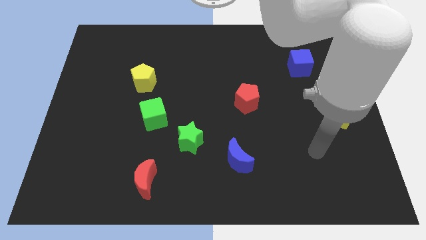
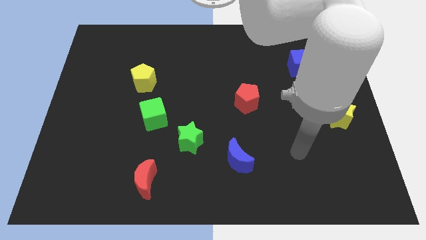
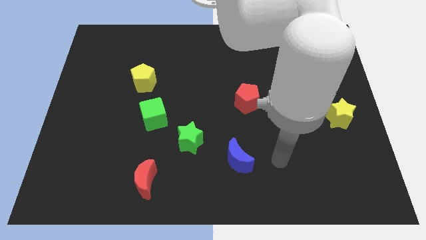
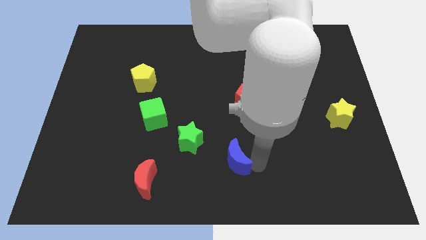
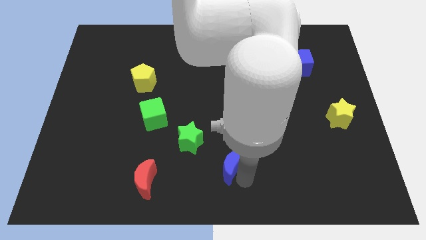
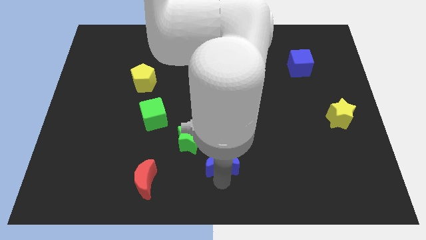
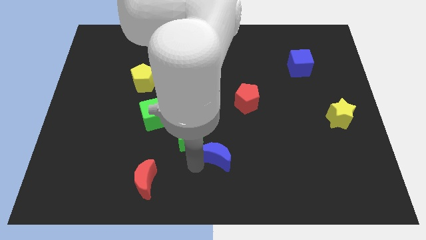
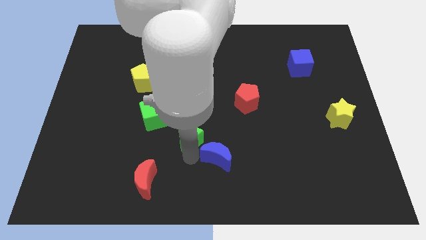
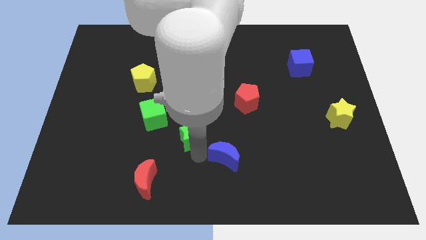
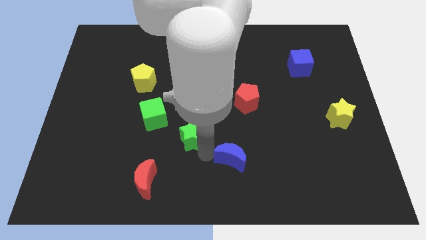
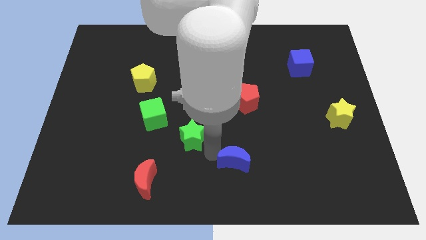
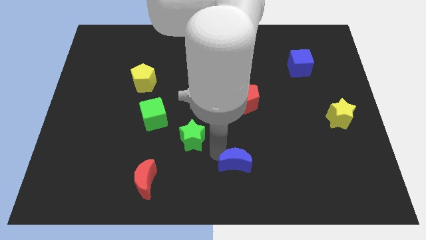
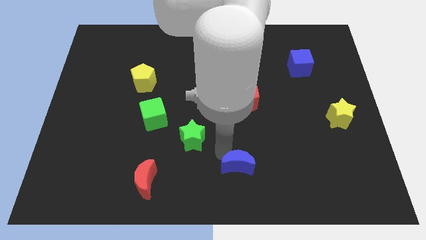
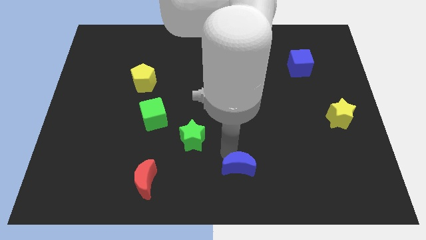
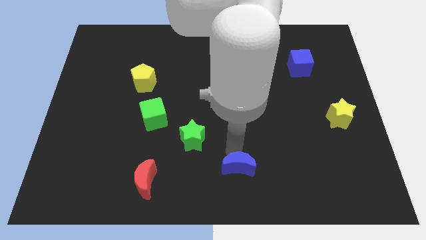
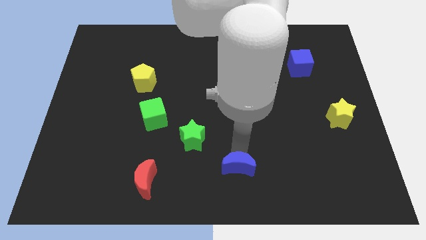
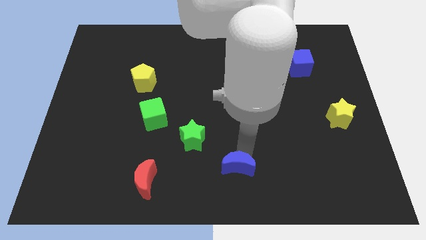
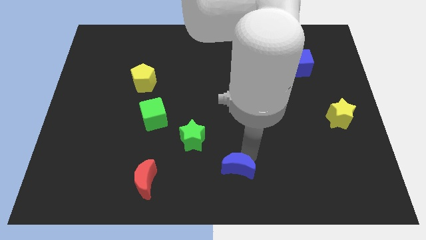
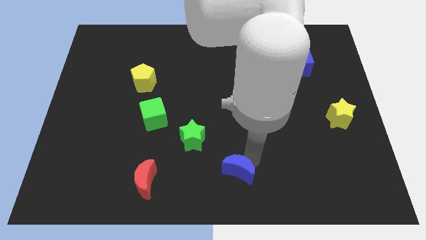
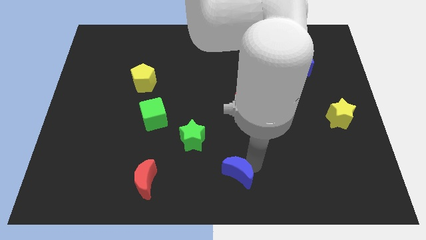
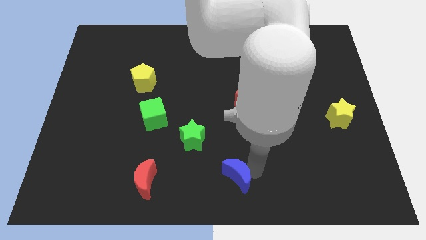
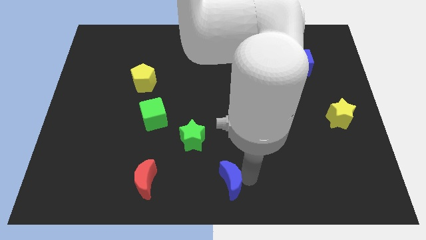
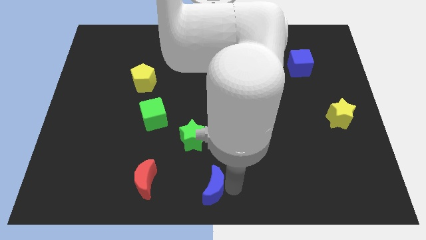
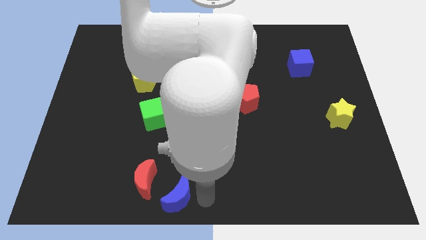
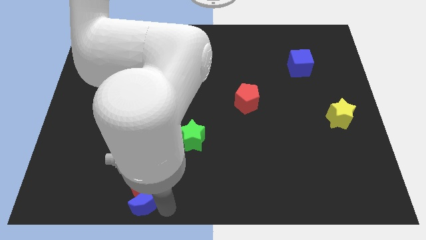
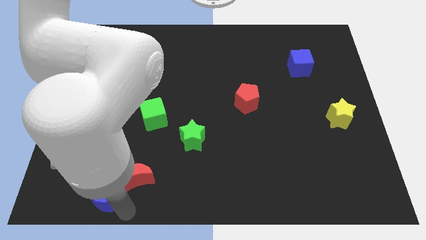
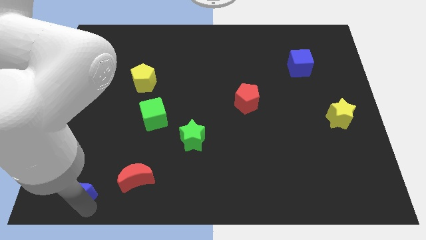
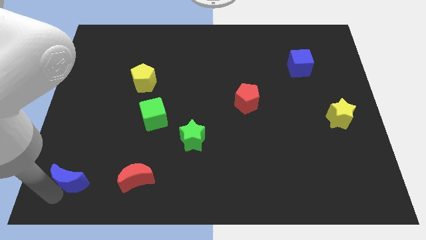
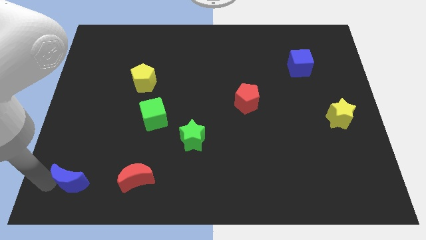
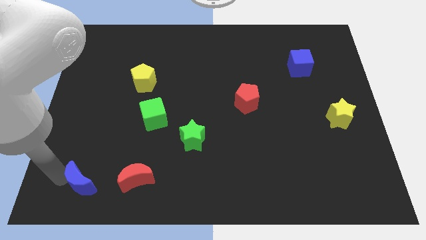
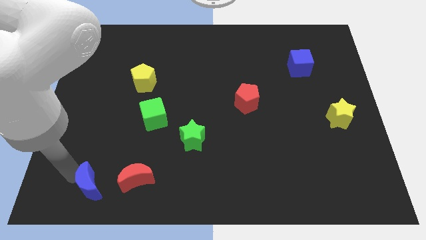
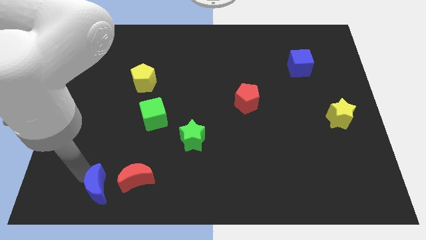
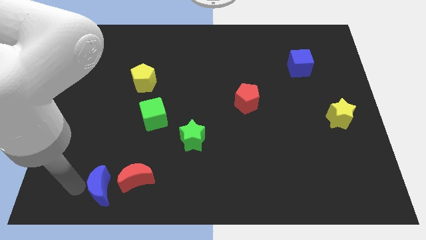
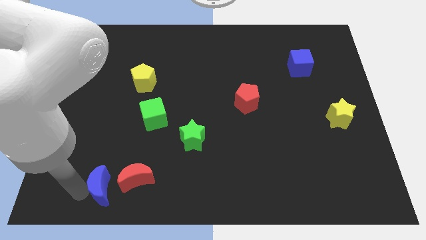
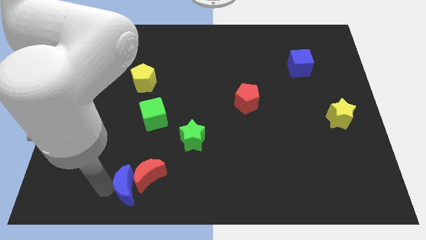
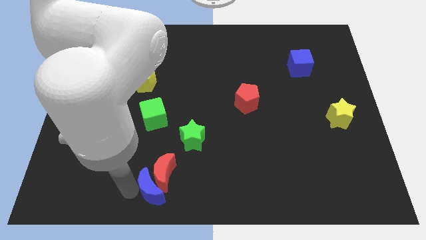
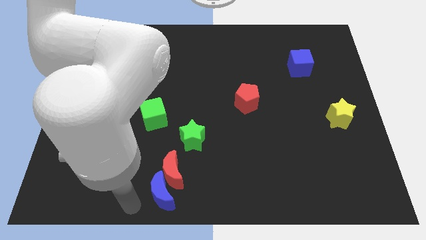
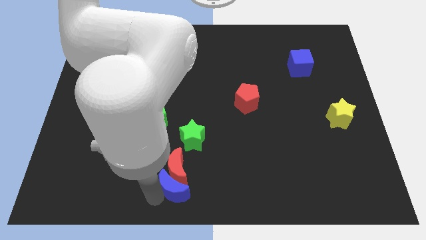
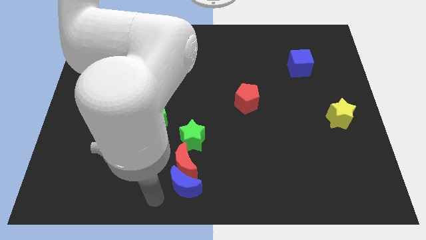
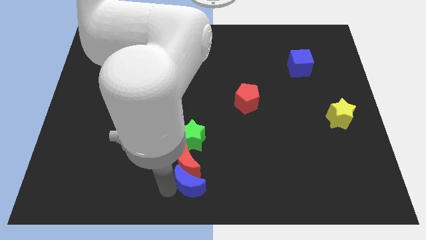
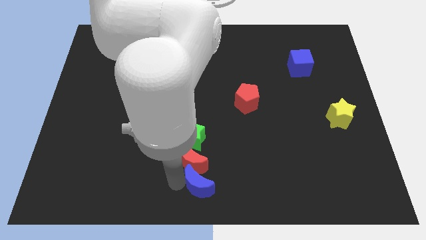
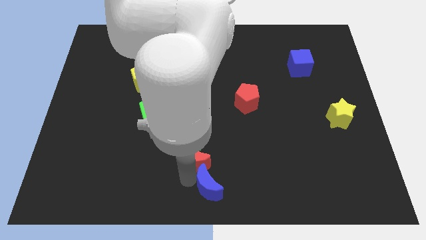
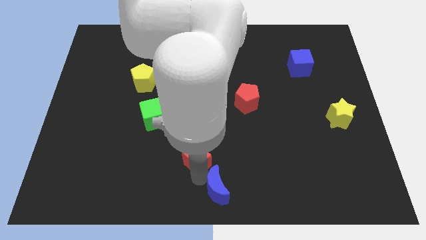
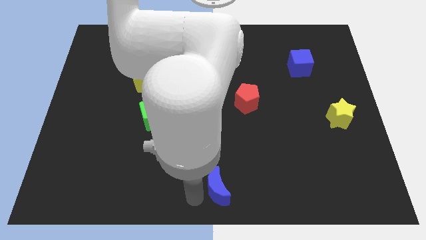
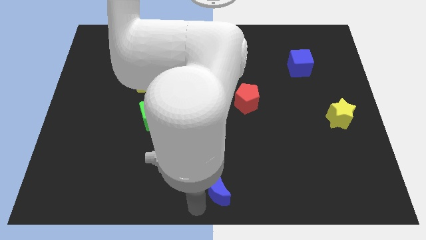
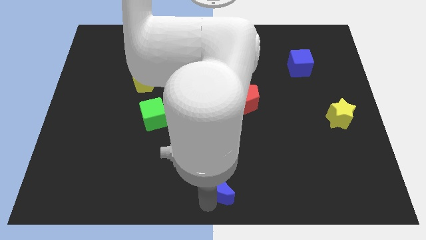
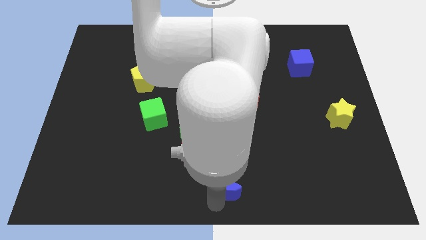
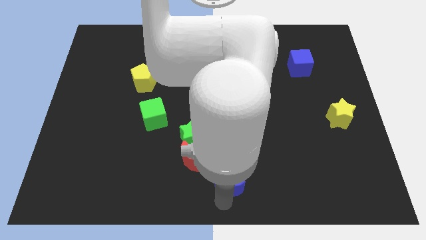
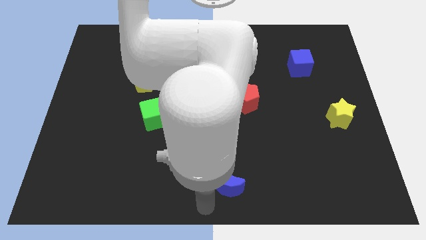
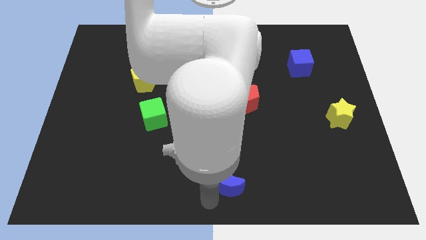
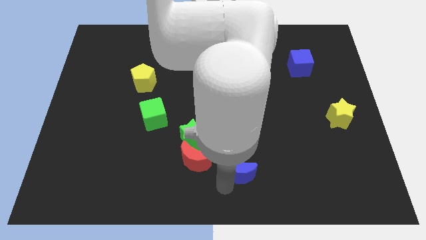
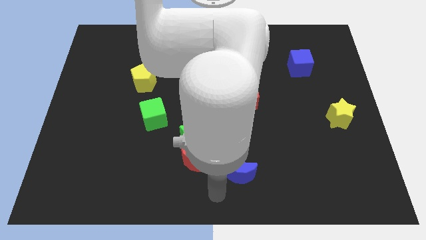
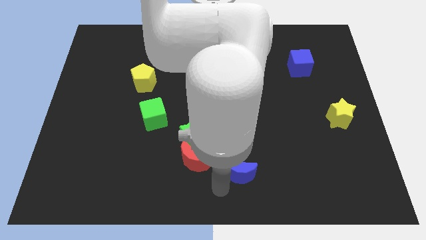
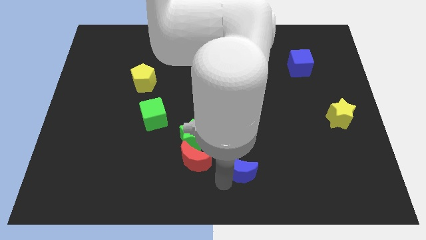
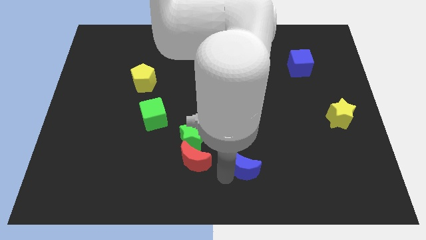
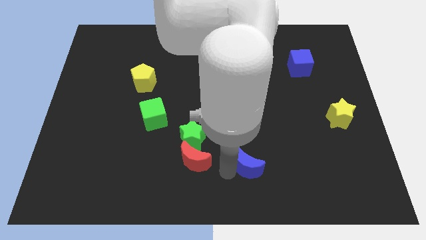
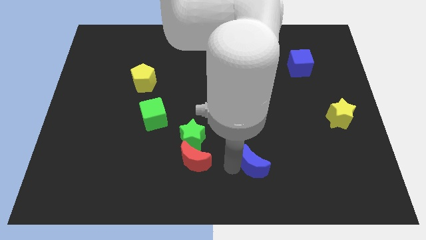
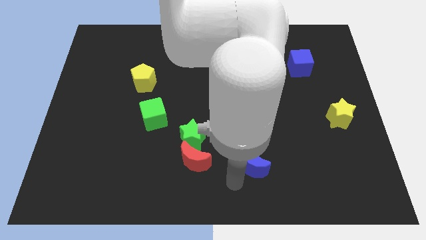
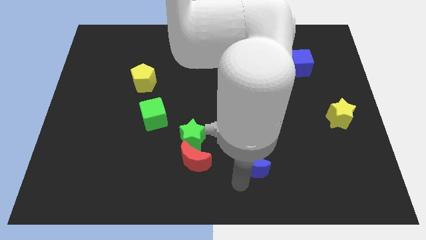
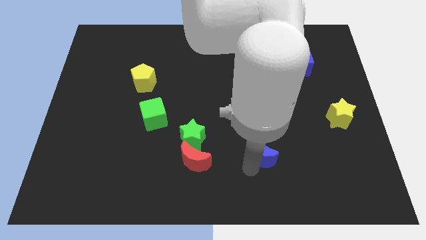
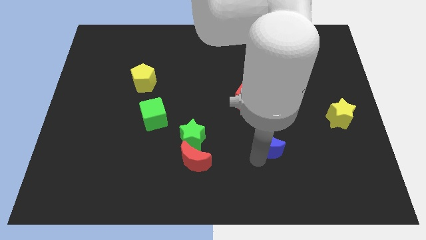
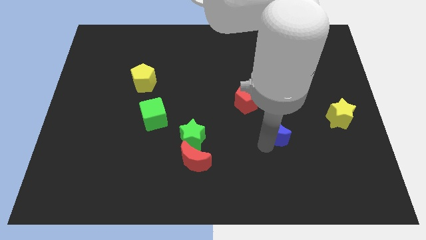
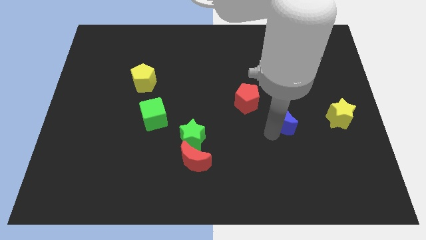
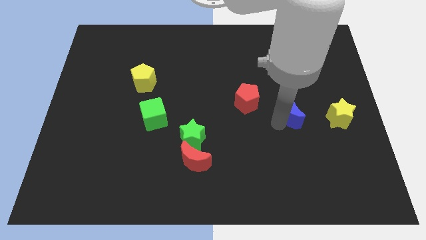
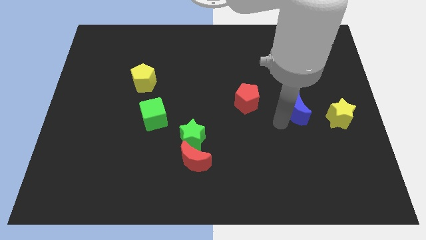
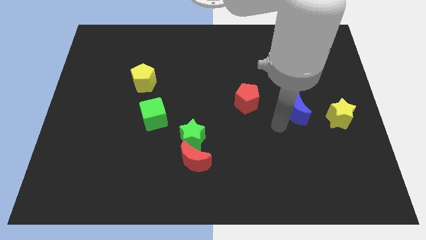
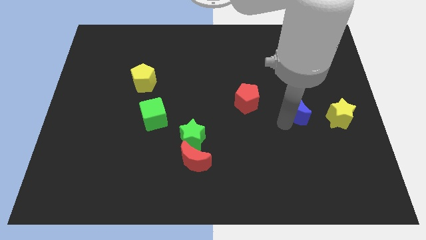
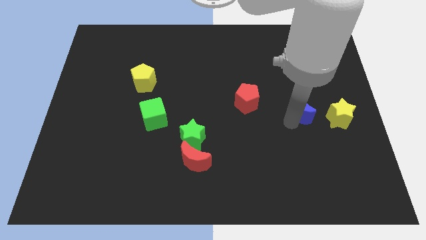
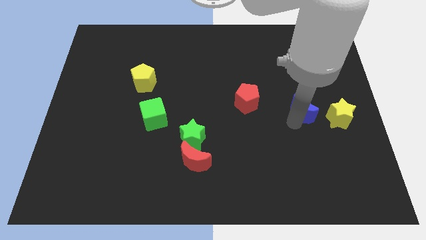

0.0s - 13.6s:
put the blue moon to the top left side of the yellow star

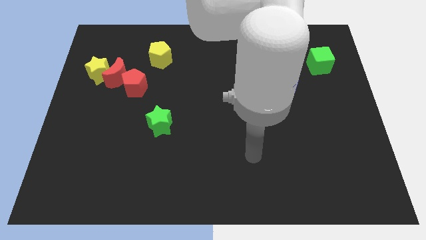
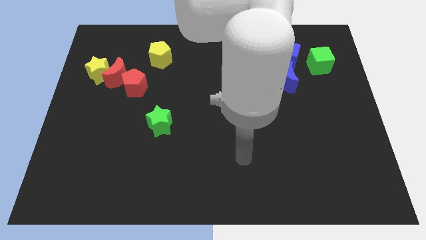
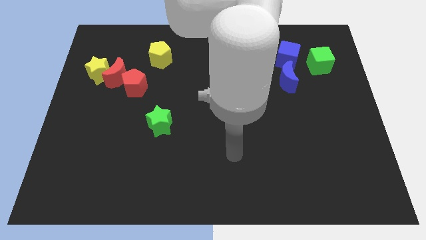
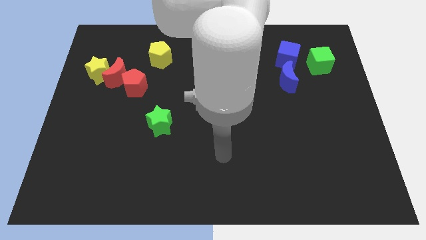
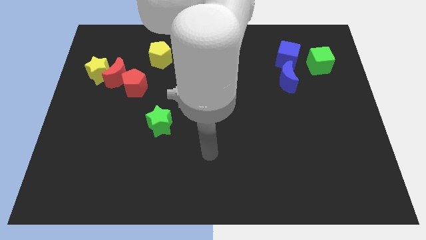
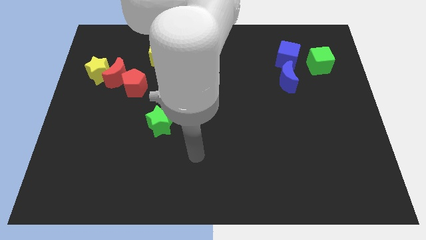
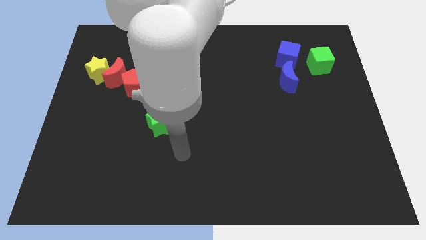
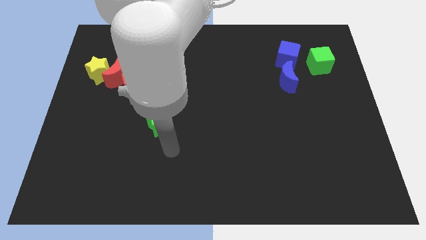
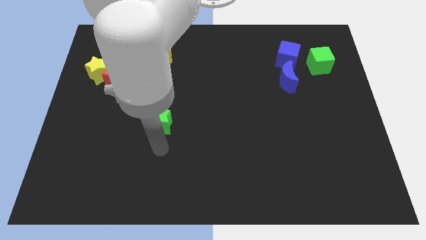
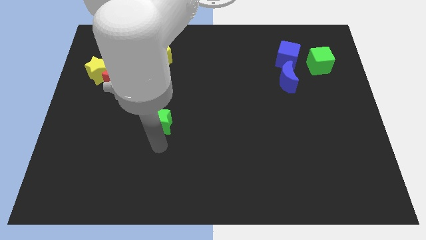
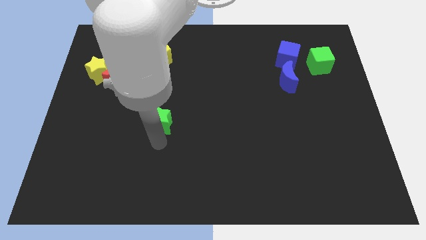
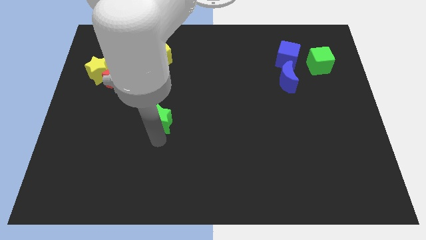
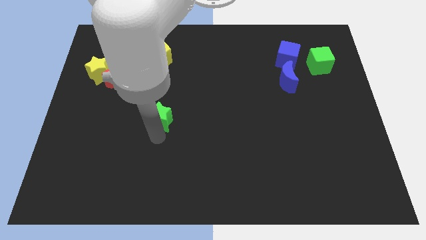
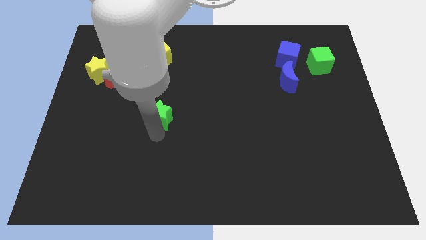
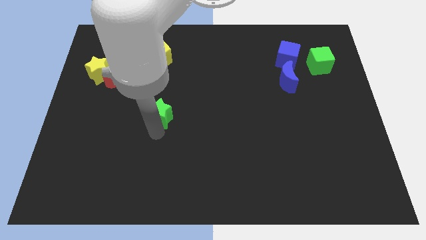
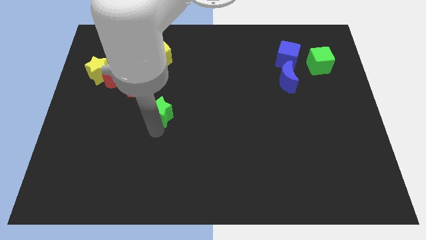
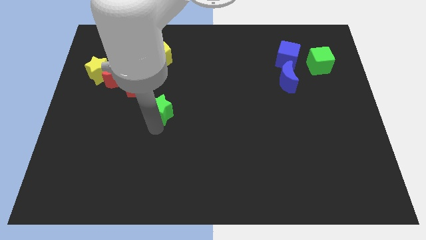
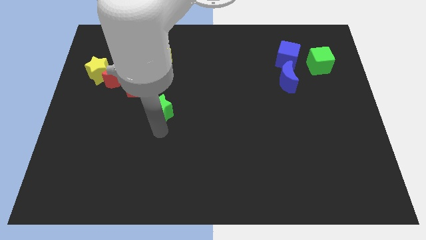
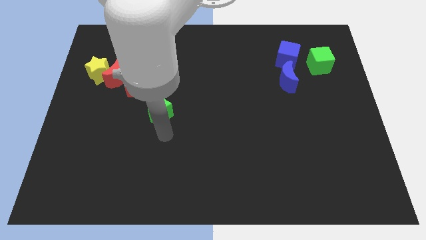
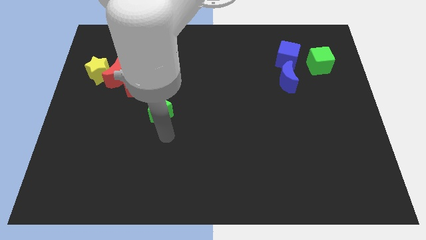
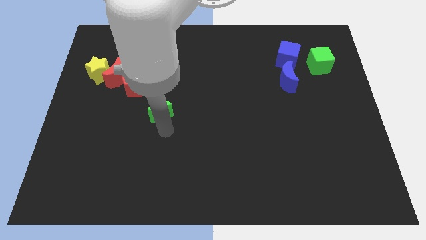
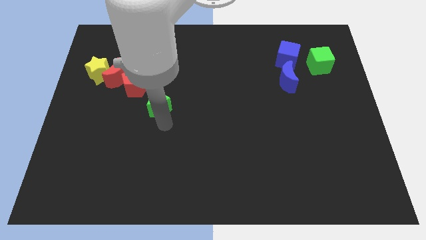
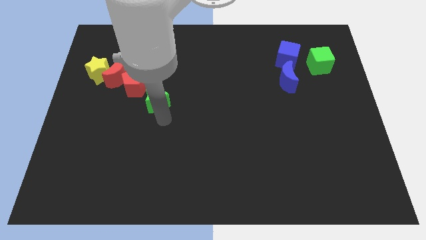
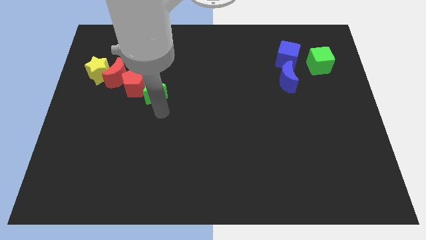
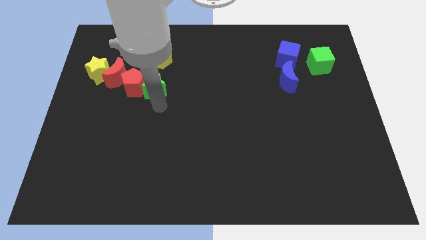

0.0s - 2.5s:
move the green star just right of the red moon
